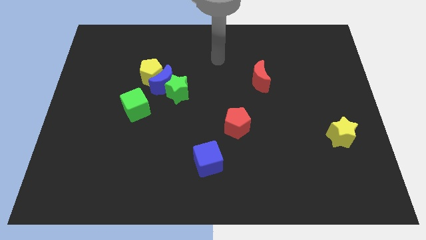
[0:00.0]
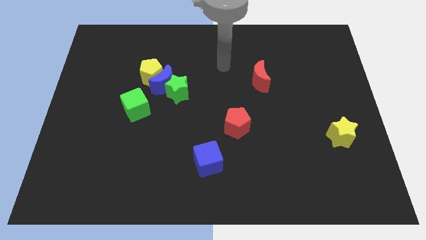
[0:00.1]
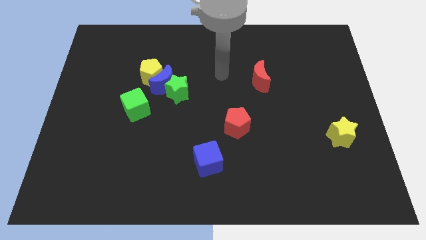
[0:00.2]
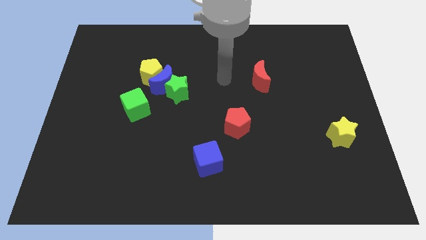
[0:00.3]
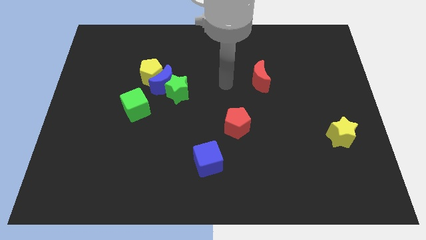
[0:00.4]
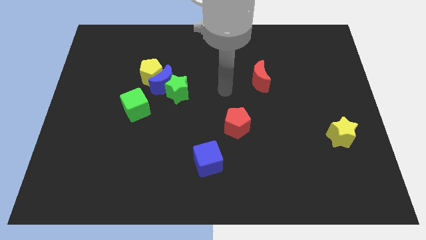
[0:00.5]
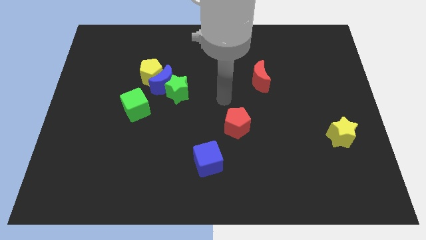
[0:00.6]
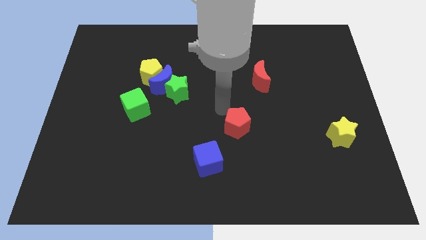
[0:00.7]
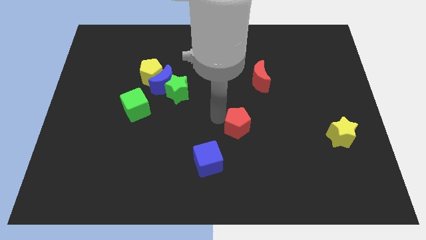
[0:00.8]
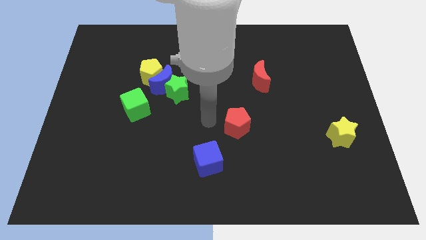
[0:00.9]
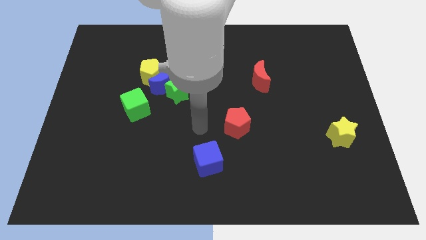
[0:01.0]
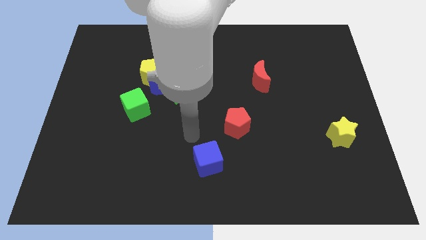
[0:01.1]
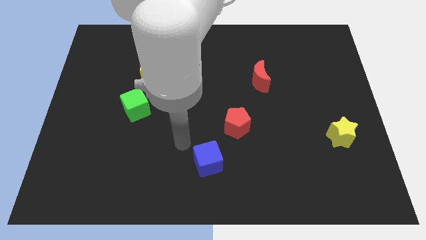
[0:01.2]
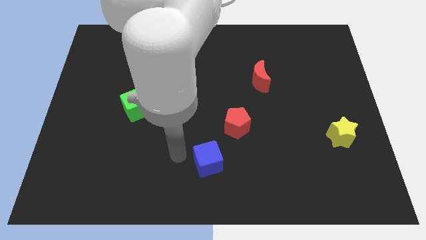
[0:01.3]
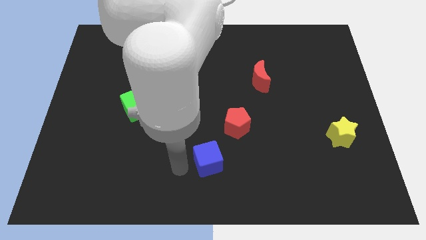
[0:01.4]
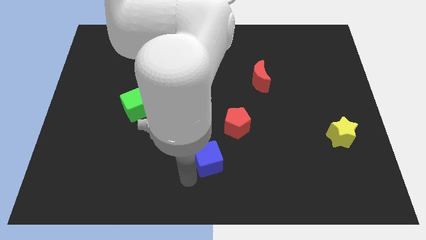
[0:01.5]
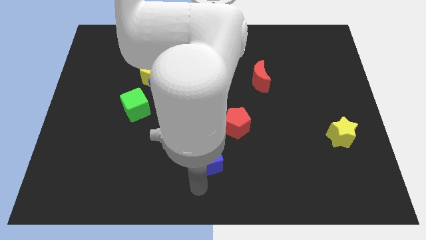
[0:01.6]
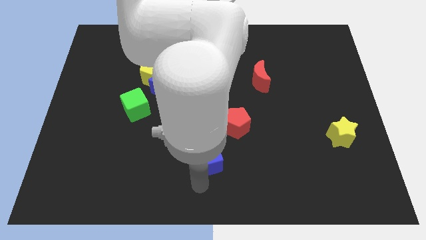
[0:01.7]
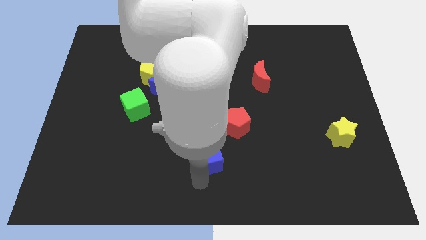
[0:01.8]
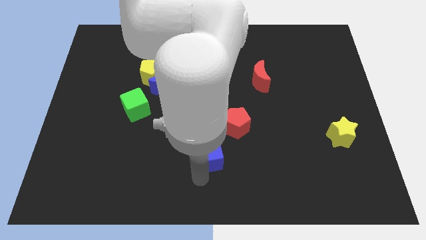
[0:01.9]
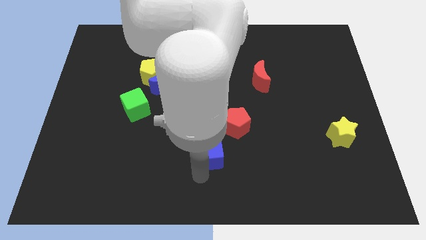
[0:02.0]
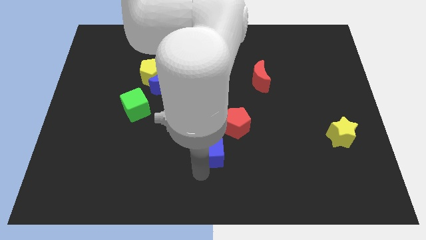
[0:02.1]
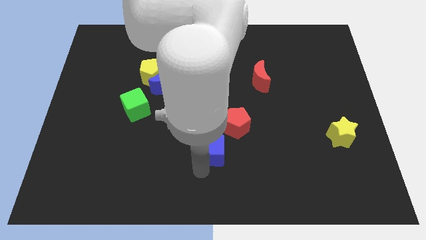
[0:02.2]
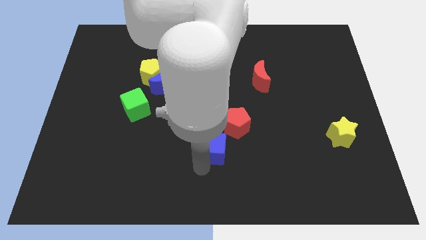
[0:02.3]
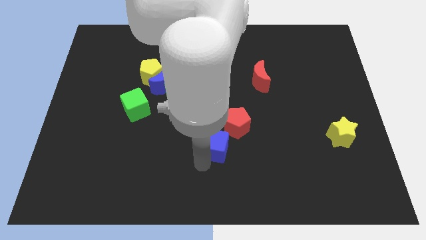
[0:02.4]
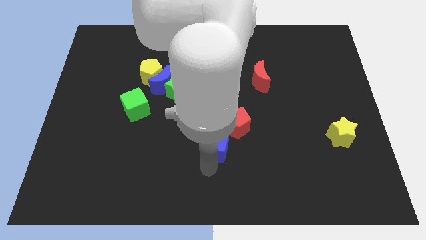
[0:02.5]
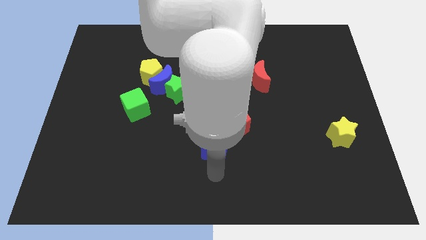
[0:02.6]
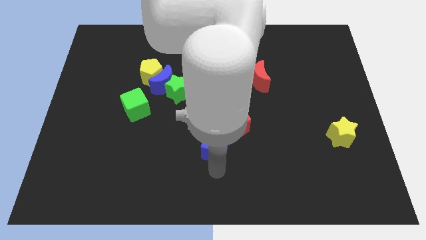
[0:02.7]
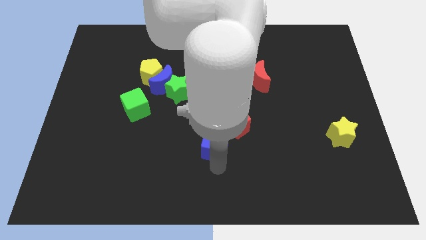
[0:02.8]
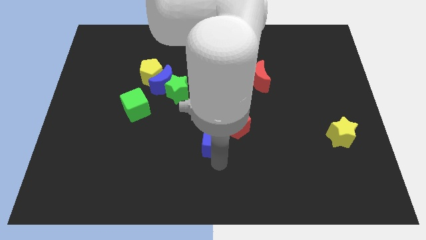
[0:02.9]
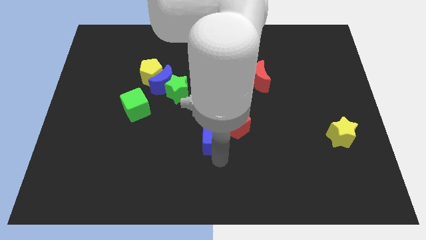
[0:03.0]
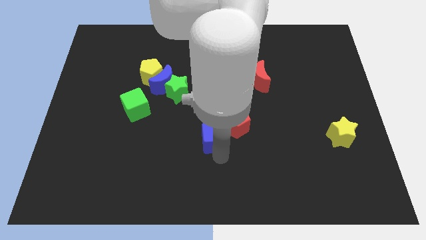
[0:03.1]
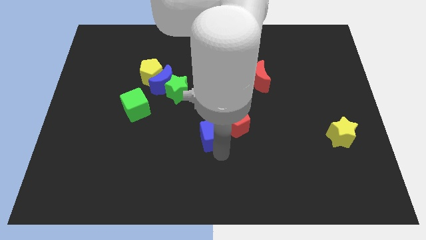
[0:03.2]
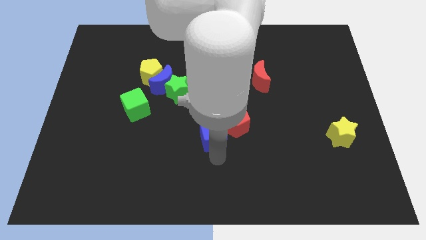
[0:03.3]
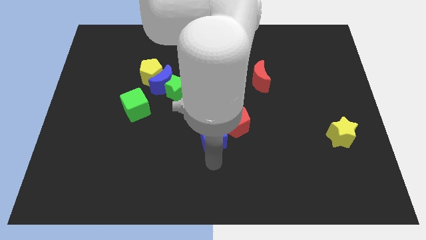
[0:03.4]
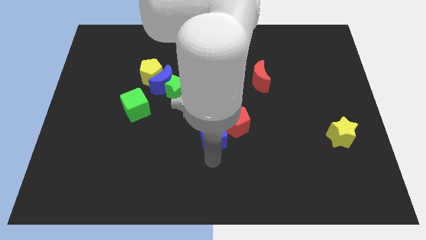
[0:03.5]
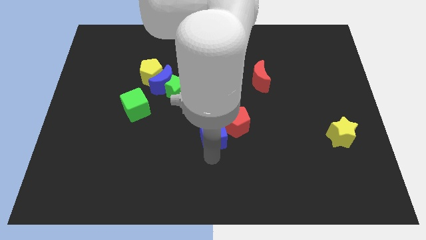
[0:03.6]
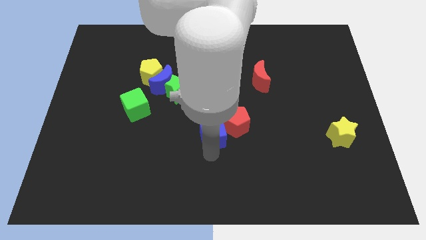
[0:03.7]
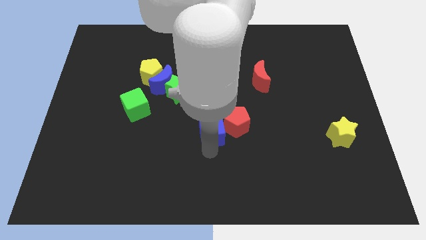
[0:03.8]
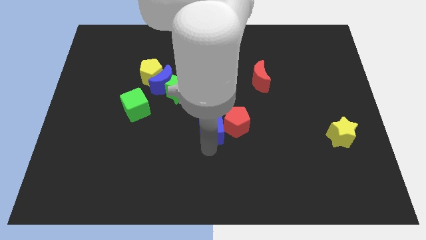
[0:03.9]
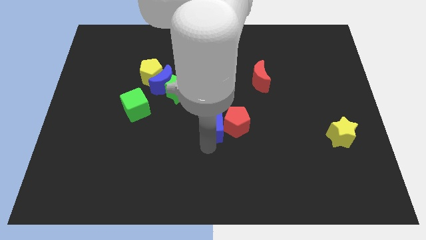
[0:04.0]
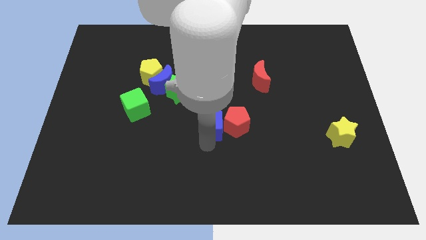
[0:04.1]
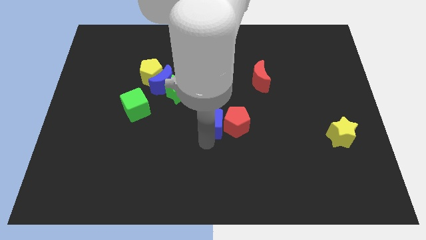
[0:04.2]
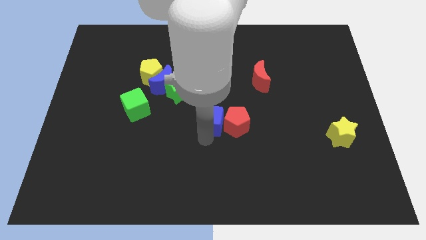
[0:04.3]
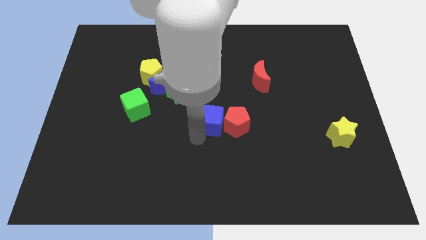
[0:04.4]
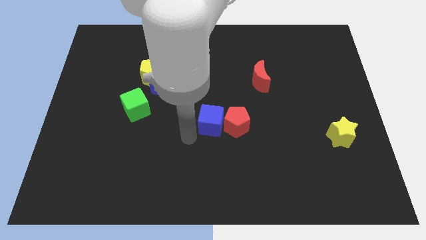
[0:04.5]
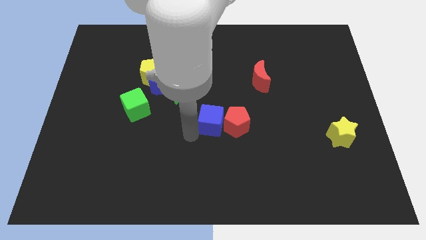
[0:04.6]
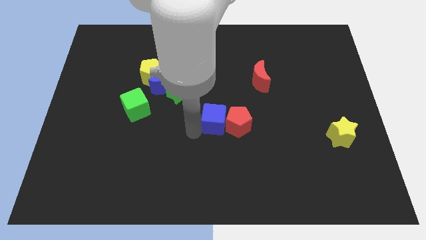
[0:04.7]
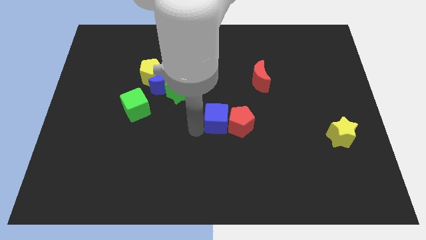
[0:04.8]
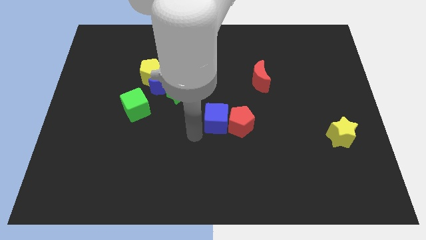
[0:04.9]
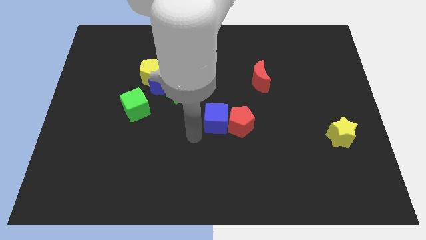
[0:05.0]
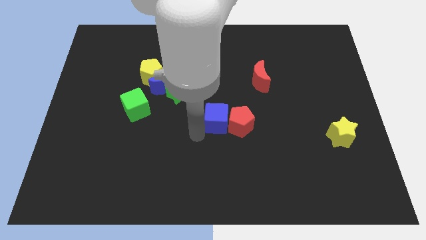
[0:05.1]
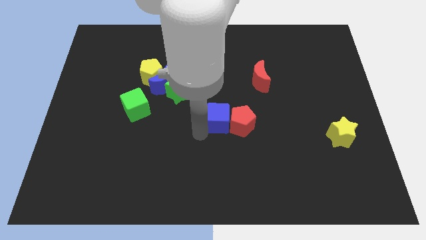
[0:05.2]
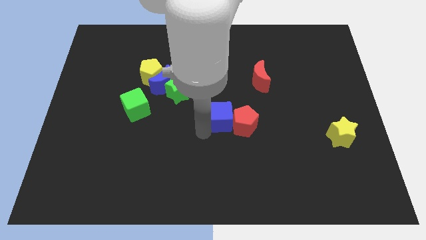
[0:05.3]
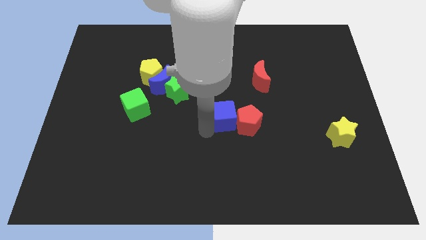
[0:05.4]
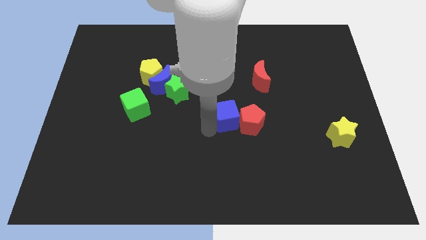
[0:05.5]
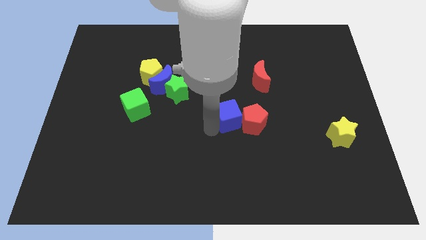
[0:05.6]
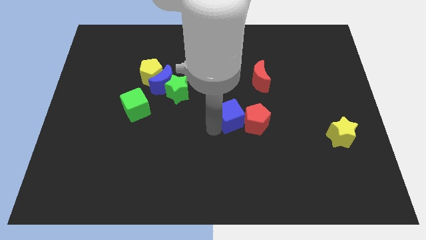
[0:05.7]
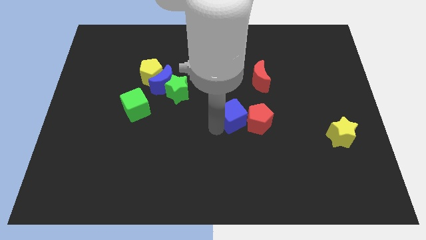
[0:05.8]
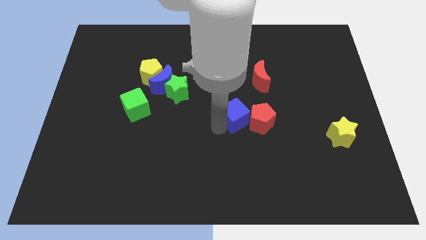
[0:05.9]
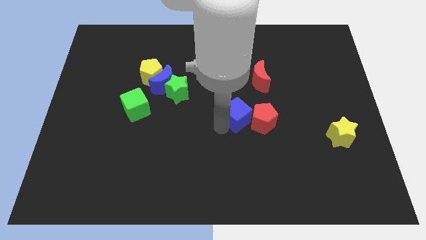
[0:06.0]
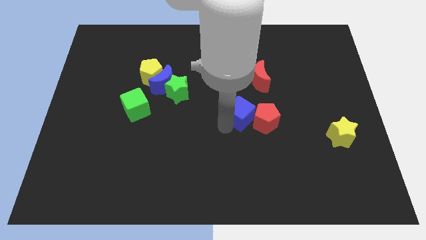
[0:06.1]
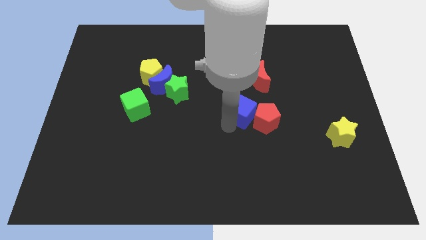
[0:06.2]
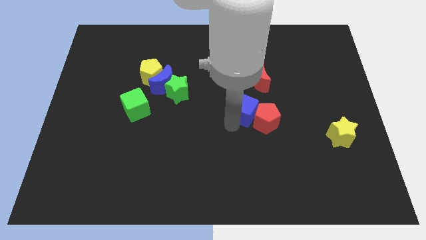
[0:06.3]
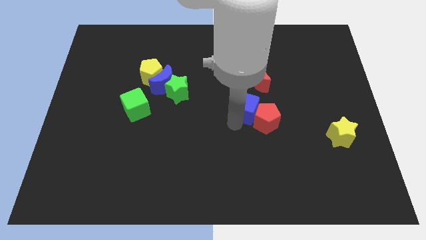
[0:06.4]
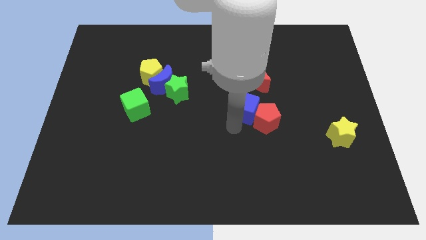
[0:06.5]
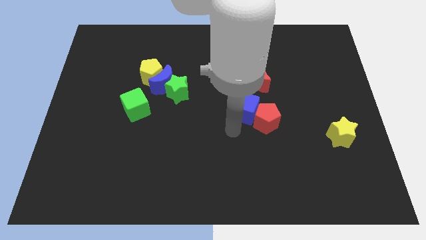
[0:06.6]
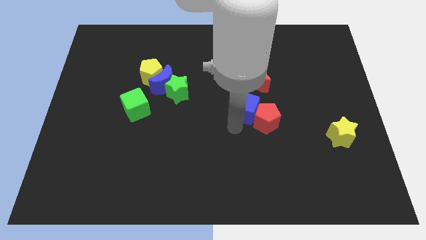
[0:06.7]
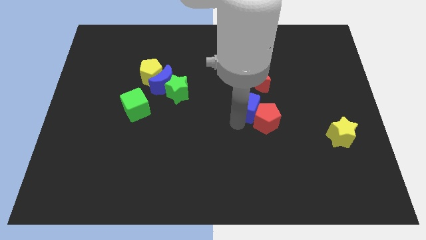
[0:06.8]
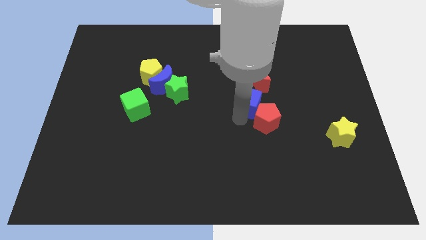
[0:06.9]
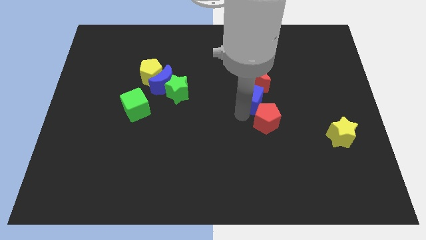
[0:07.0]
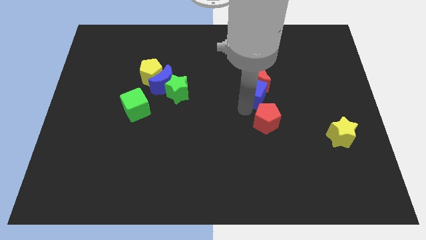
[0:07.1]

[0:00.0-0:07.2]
move the blue cube next to the red moon
